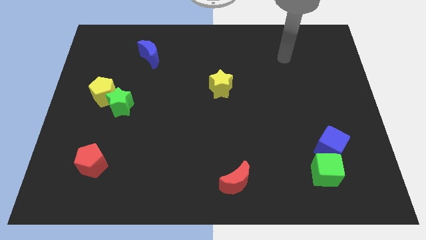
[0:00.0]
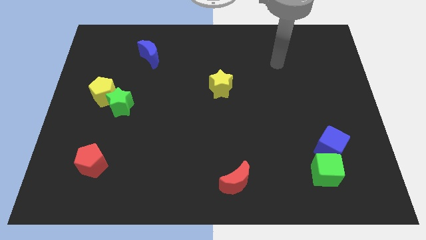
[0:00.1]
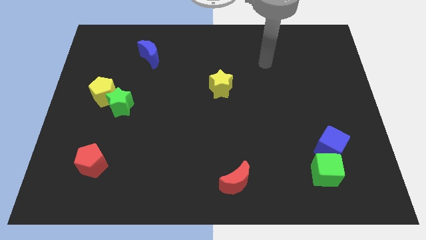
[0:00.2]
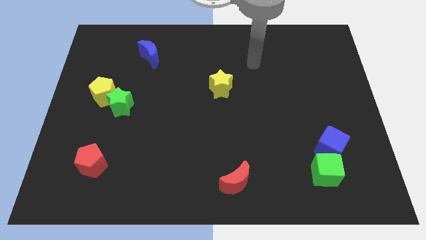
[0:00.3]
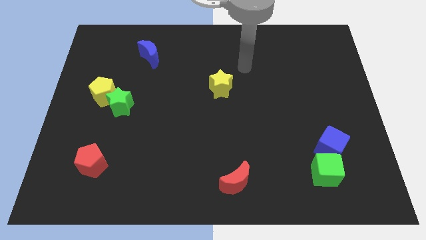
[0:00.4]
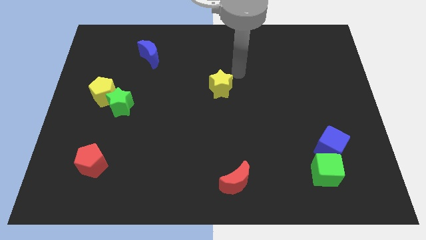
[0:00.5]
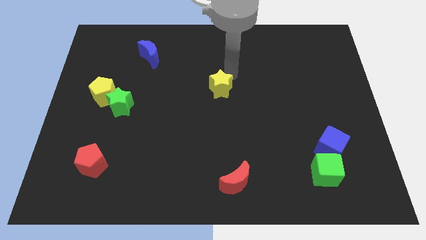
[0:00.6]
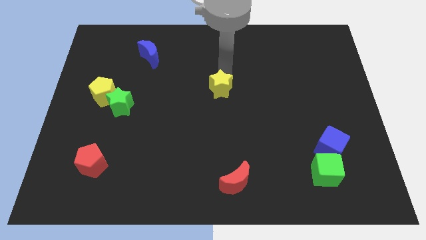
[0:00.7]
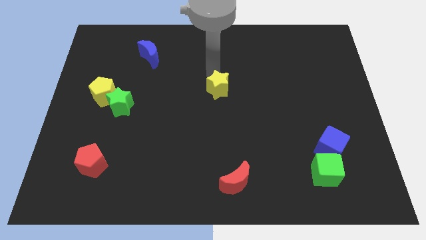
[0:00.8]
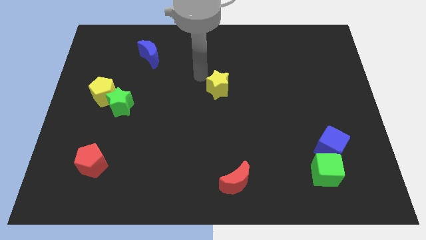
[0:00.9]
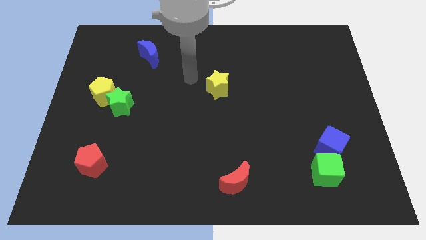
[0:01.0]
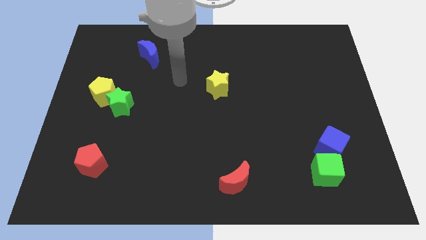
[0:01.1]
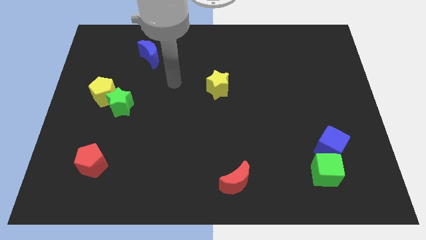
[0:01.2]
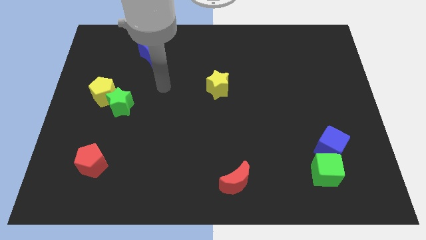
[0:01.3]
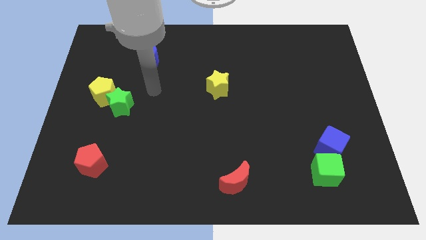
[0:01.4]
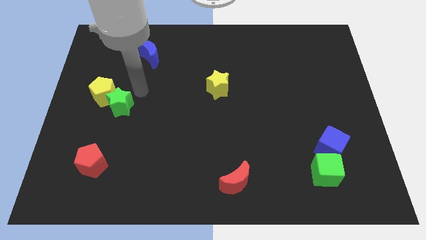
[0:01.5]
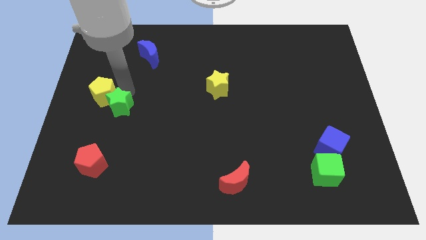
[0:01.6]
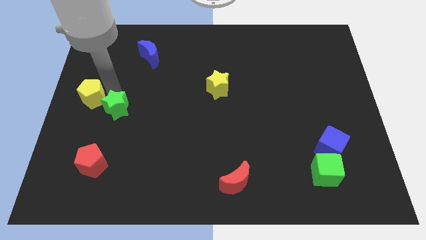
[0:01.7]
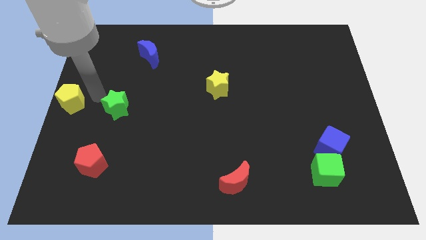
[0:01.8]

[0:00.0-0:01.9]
move the green star away from the yellow pentagon

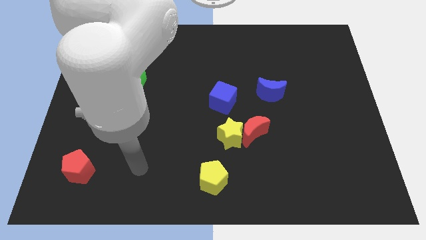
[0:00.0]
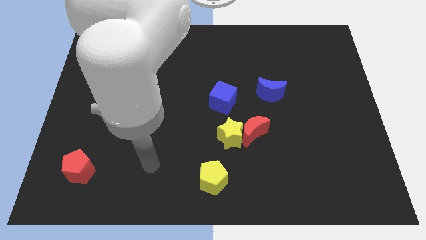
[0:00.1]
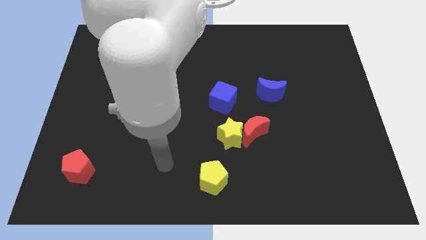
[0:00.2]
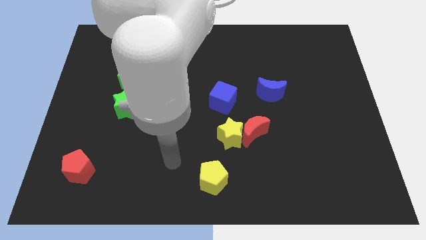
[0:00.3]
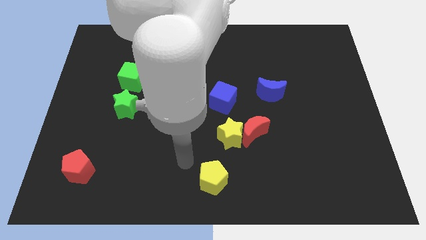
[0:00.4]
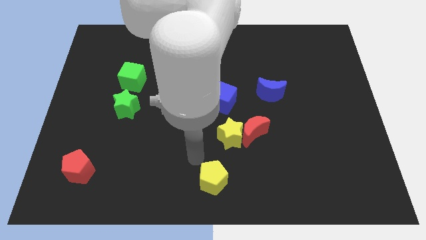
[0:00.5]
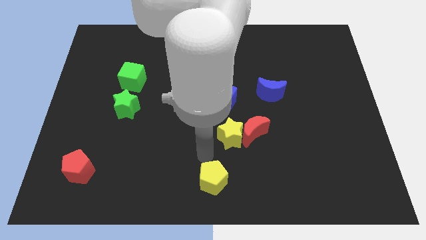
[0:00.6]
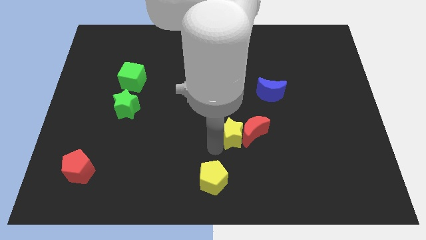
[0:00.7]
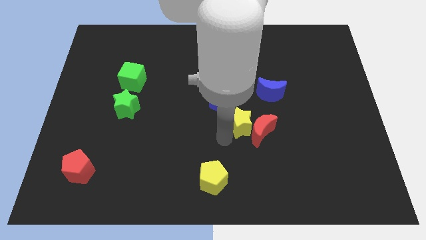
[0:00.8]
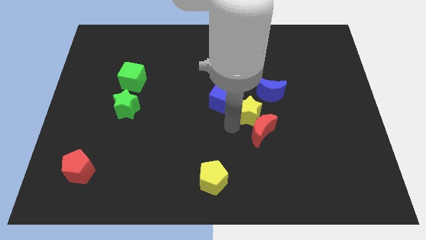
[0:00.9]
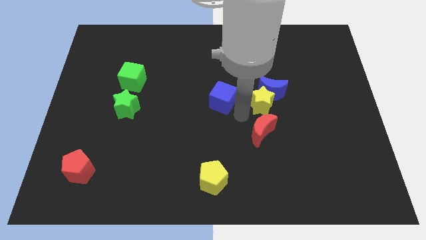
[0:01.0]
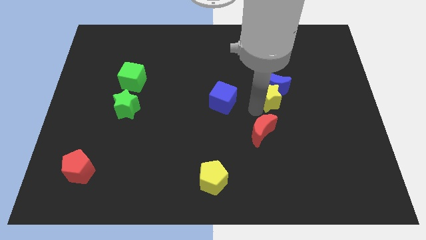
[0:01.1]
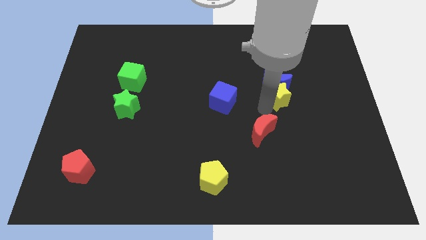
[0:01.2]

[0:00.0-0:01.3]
move the red moon away from the yellow star

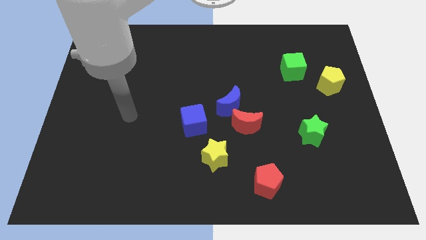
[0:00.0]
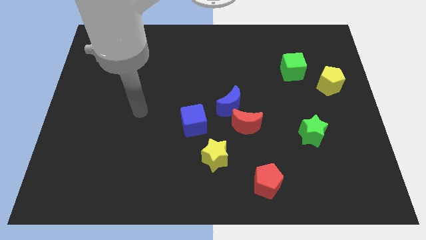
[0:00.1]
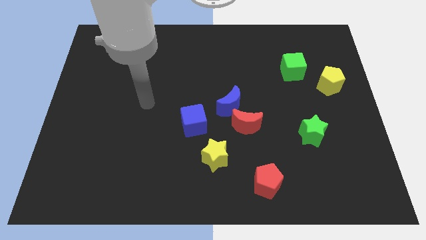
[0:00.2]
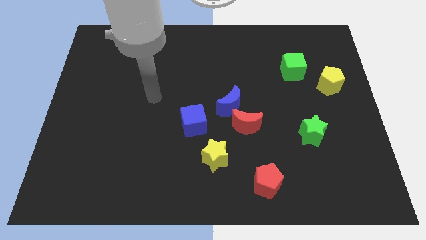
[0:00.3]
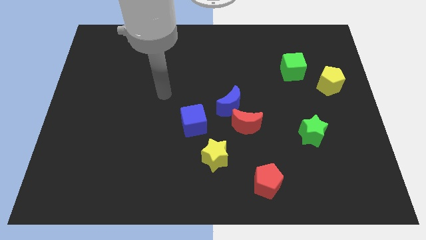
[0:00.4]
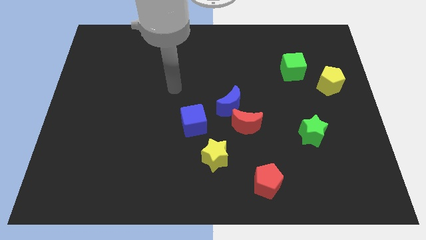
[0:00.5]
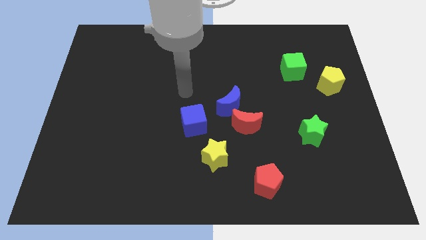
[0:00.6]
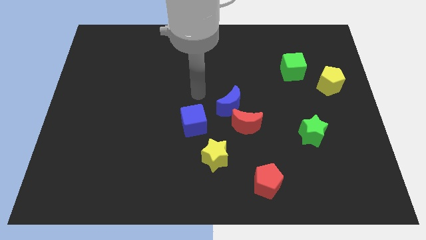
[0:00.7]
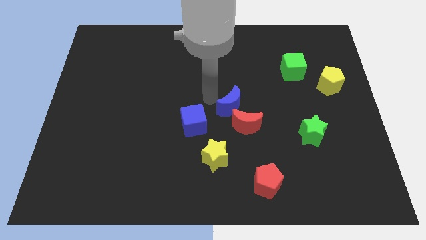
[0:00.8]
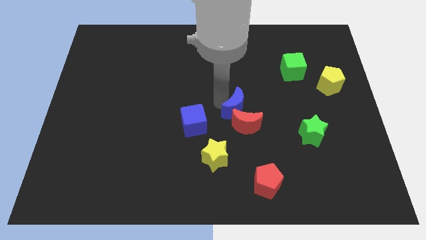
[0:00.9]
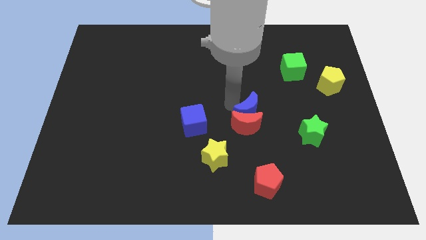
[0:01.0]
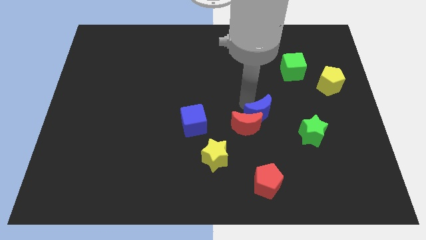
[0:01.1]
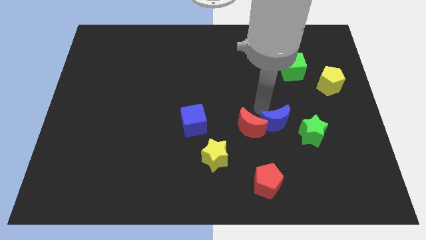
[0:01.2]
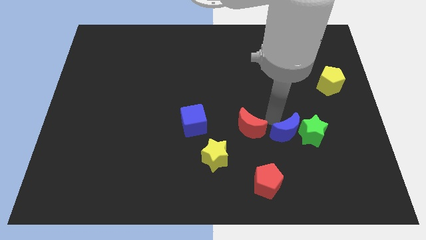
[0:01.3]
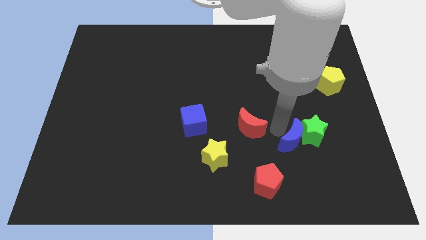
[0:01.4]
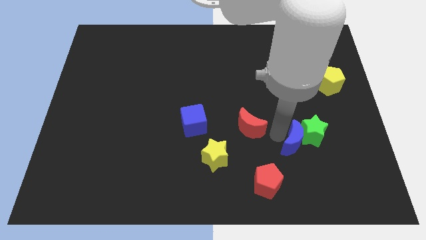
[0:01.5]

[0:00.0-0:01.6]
separate the red moon from the blue moon

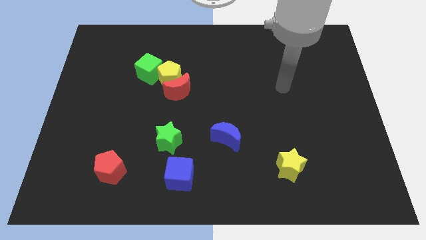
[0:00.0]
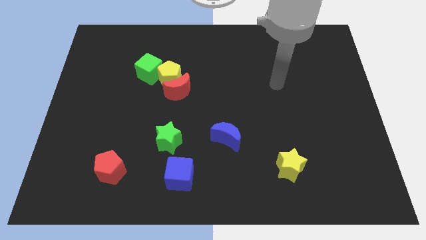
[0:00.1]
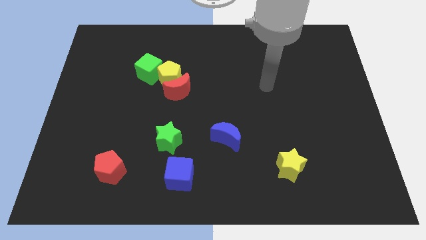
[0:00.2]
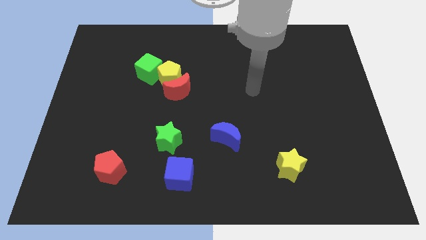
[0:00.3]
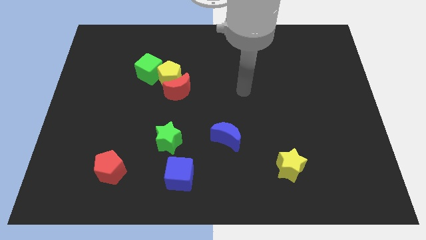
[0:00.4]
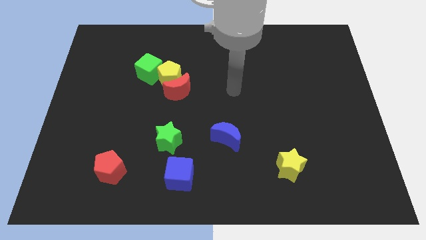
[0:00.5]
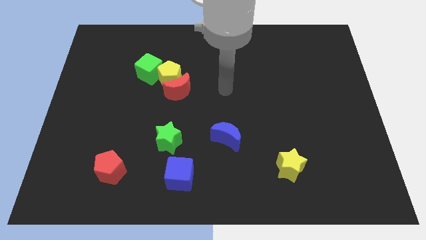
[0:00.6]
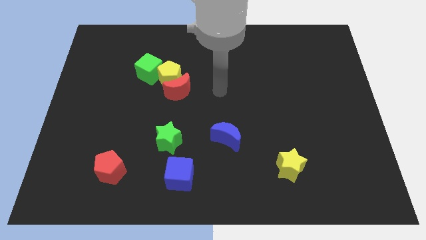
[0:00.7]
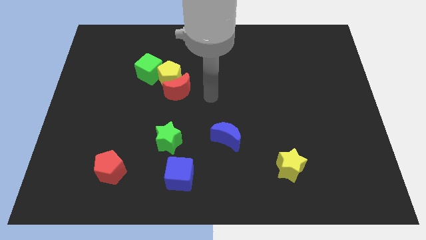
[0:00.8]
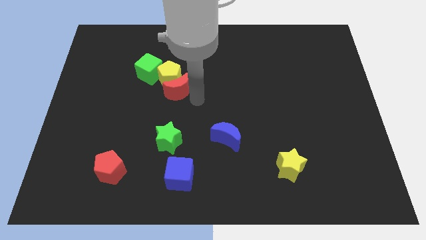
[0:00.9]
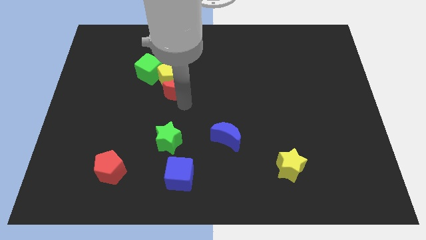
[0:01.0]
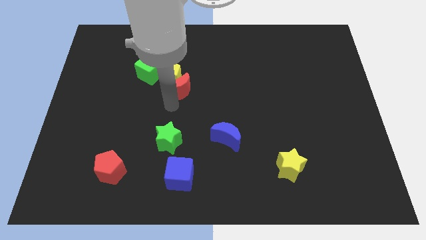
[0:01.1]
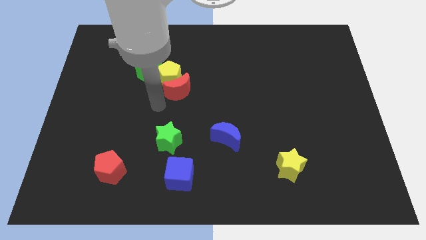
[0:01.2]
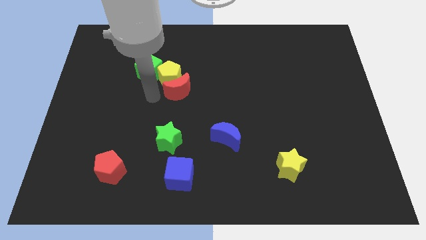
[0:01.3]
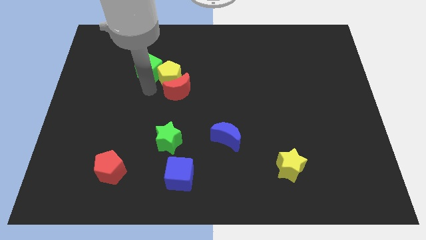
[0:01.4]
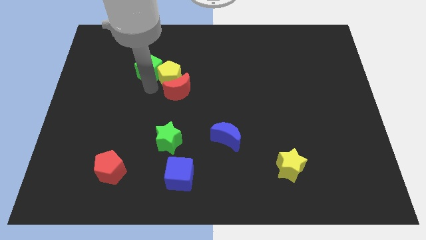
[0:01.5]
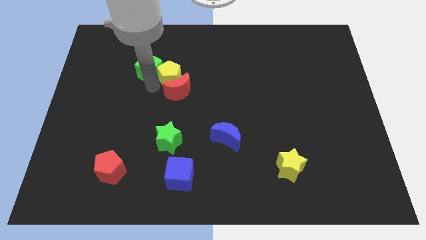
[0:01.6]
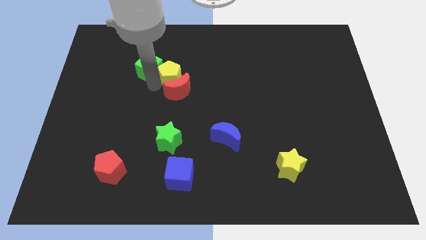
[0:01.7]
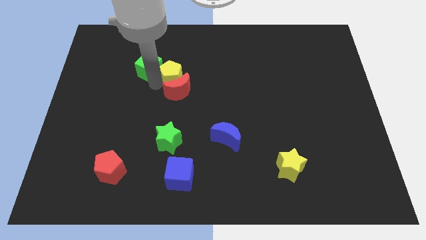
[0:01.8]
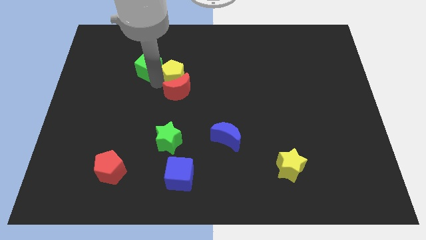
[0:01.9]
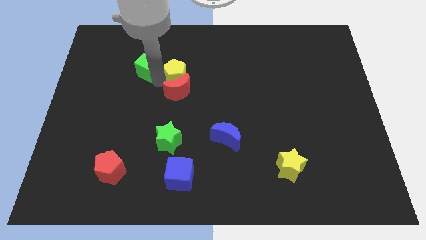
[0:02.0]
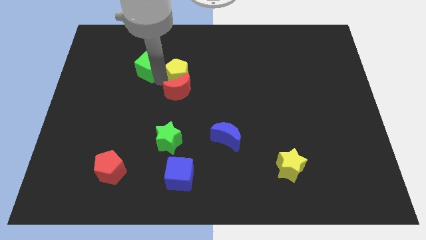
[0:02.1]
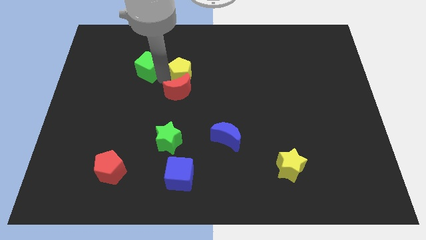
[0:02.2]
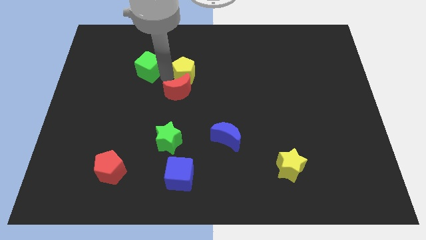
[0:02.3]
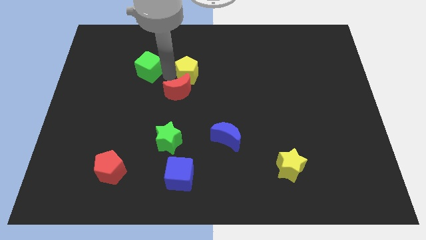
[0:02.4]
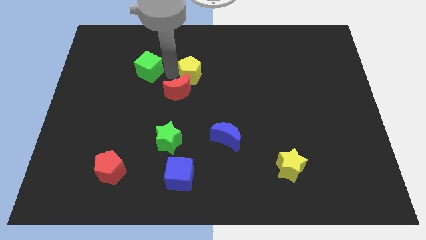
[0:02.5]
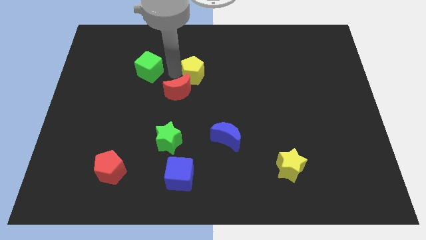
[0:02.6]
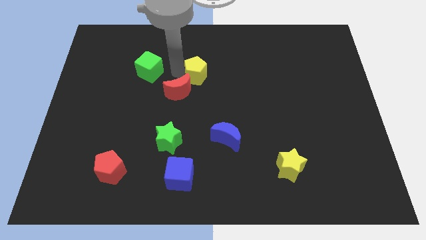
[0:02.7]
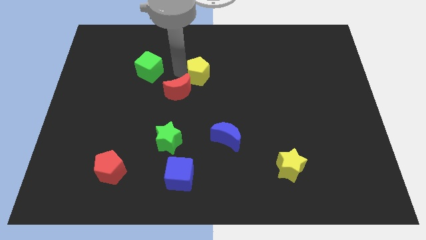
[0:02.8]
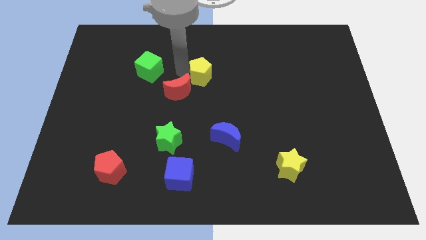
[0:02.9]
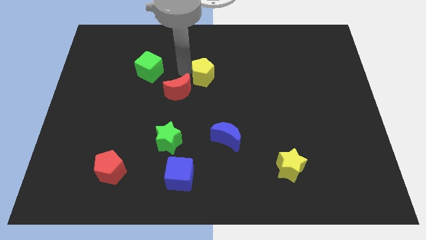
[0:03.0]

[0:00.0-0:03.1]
move the yellow pentagon away from the red moon and green cube

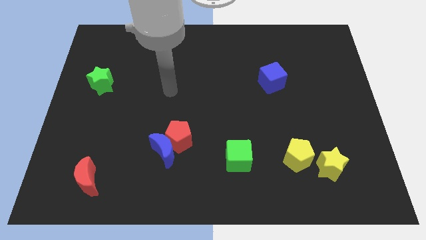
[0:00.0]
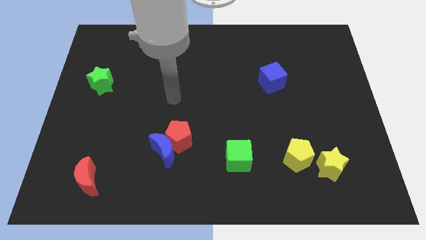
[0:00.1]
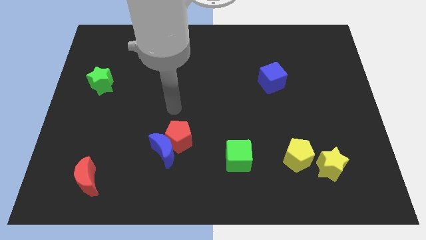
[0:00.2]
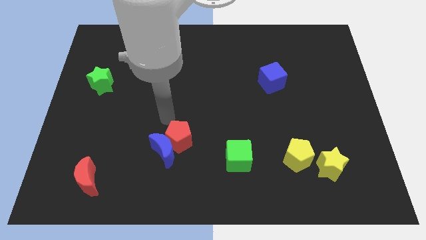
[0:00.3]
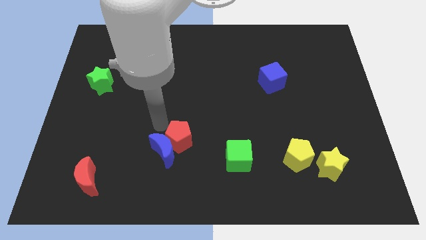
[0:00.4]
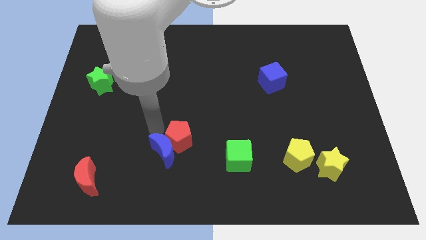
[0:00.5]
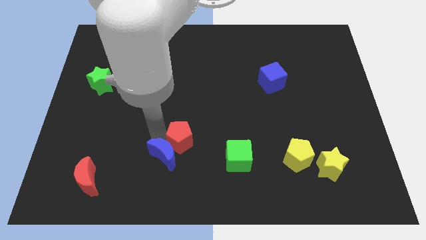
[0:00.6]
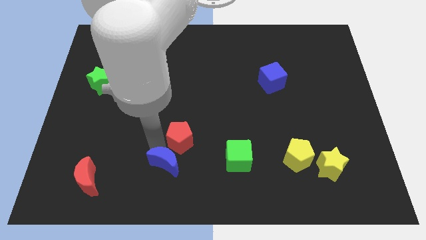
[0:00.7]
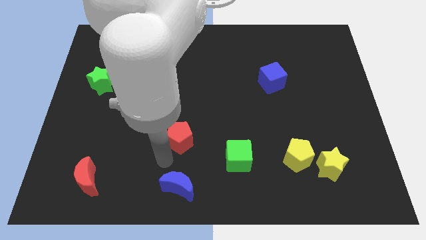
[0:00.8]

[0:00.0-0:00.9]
pull the red pentagon apart from the blue moon

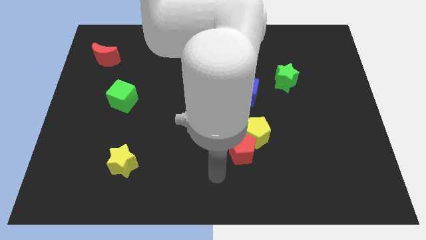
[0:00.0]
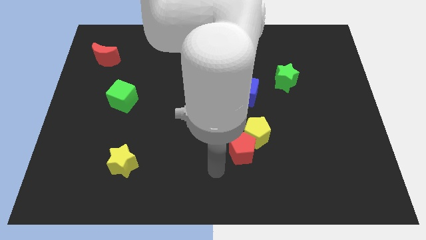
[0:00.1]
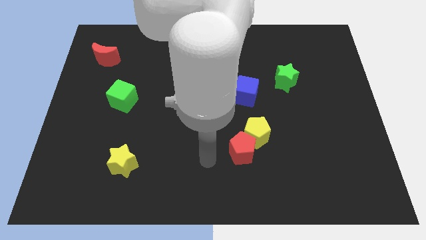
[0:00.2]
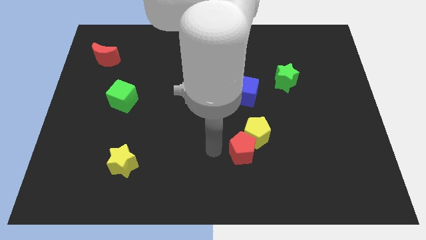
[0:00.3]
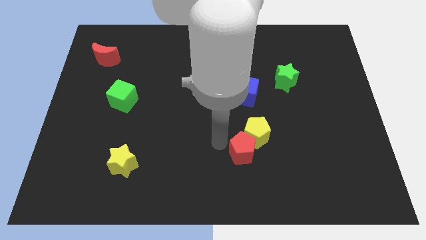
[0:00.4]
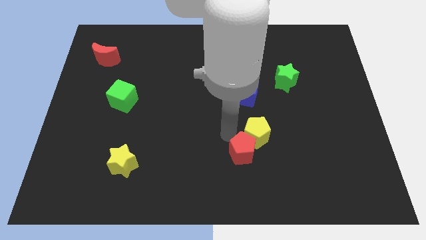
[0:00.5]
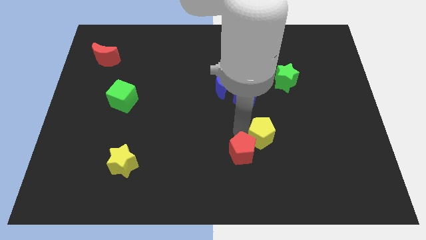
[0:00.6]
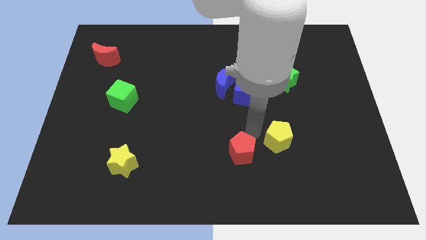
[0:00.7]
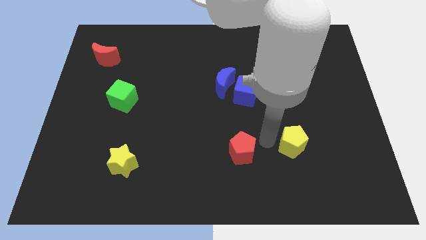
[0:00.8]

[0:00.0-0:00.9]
separate the red pentagon from the yellow pentagon
